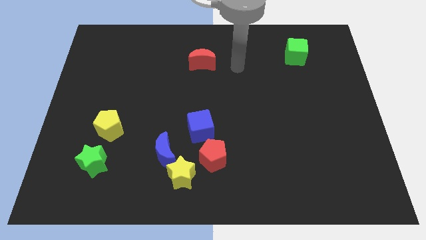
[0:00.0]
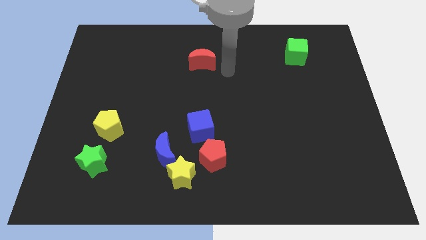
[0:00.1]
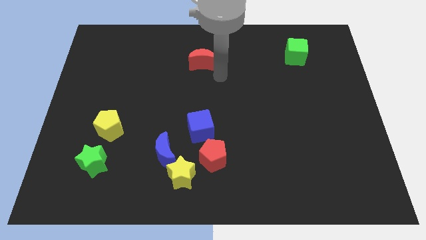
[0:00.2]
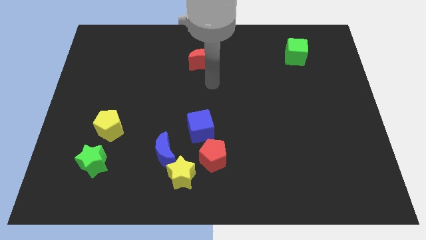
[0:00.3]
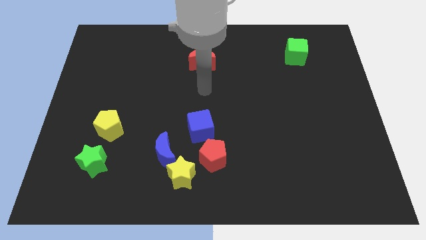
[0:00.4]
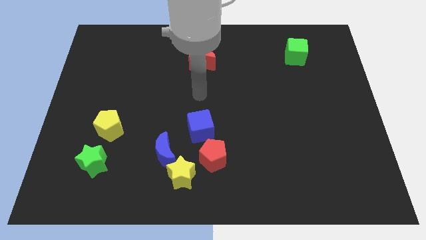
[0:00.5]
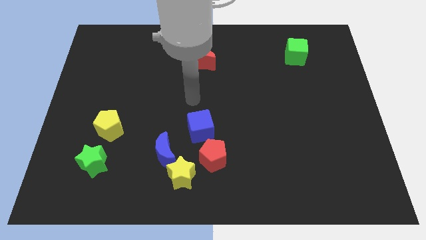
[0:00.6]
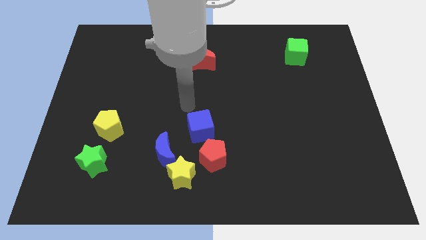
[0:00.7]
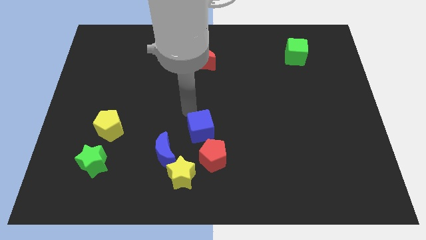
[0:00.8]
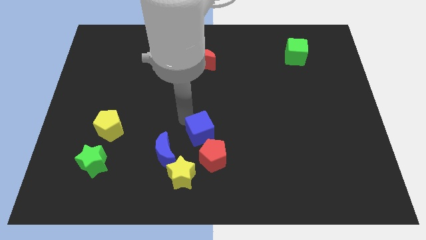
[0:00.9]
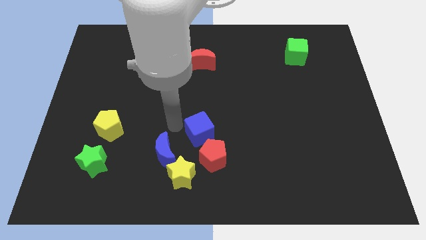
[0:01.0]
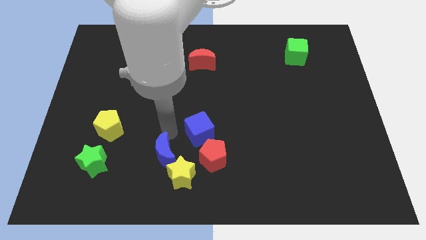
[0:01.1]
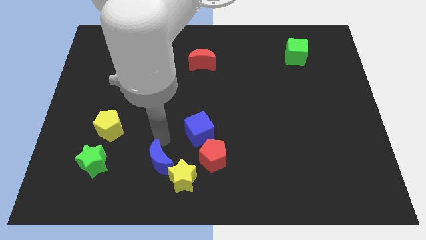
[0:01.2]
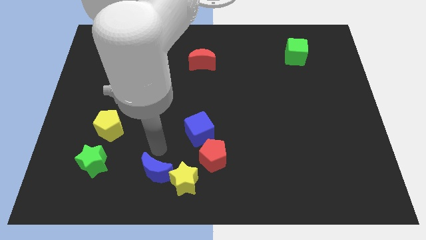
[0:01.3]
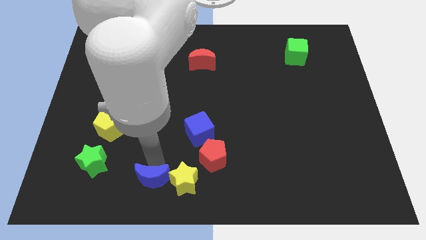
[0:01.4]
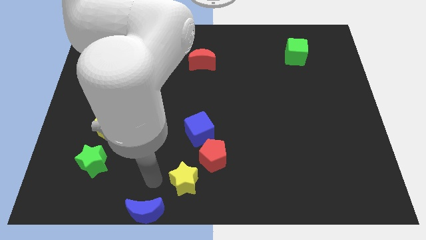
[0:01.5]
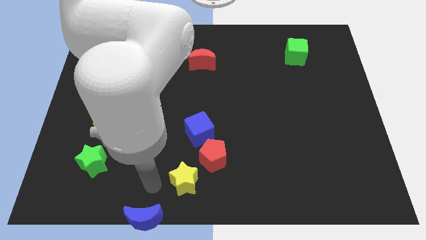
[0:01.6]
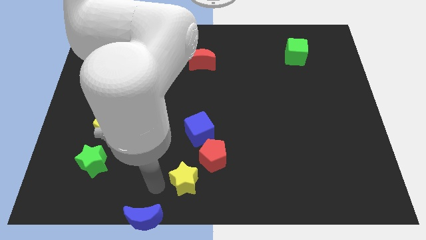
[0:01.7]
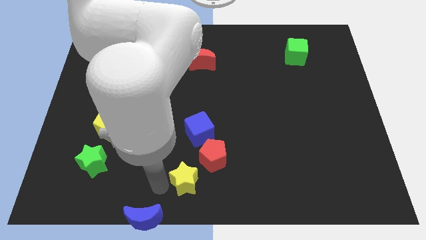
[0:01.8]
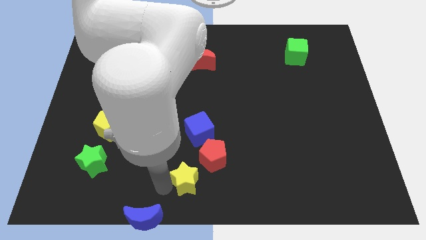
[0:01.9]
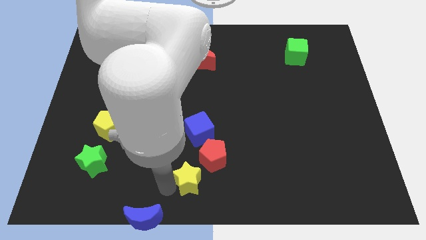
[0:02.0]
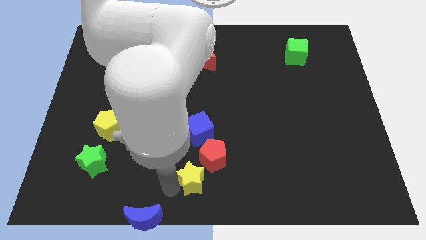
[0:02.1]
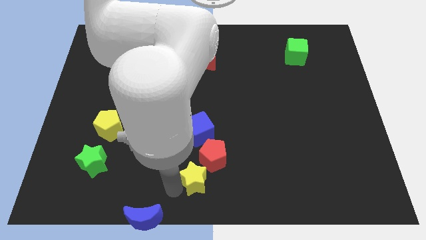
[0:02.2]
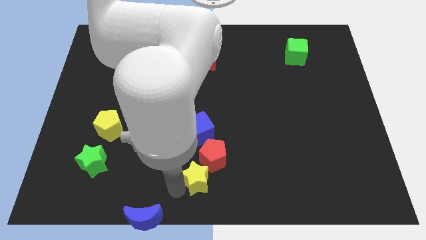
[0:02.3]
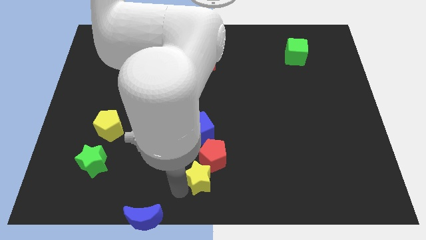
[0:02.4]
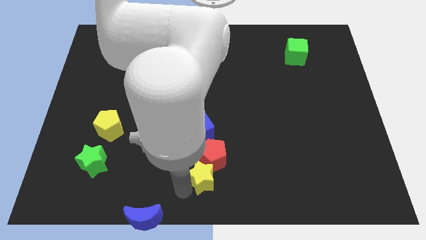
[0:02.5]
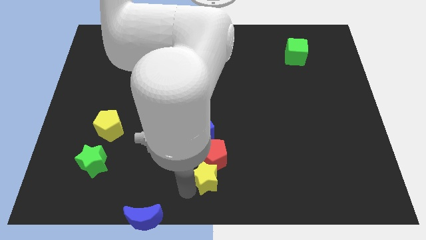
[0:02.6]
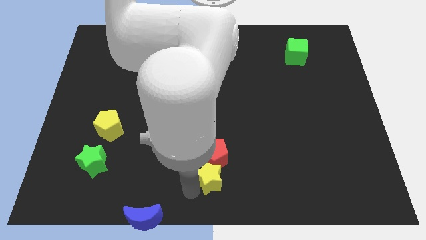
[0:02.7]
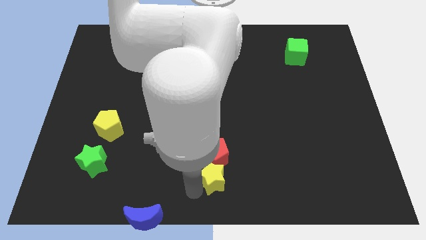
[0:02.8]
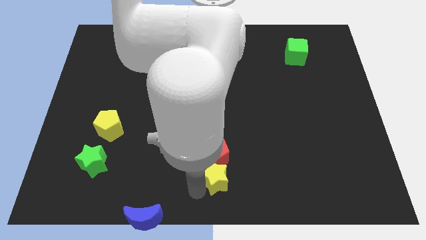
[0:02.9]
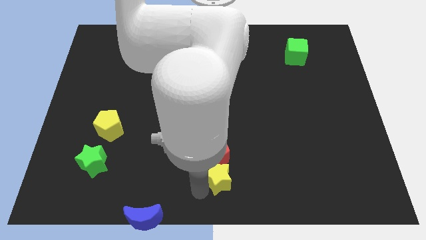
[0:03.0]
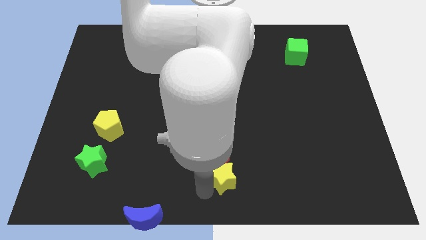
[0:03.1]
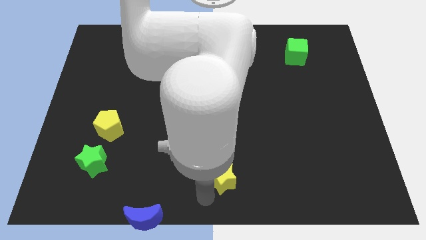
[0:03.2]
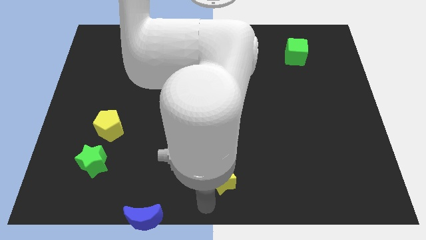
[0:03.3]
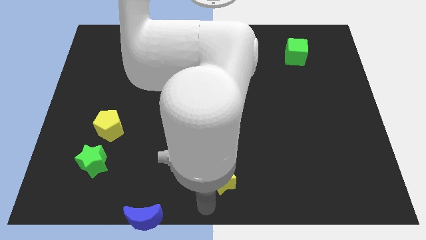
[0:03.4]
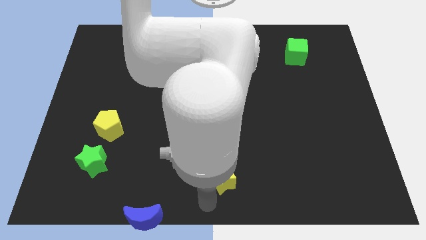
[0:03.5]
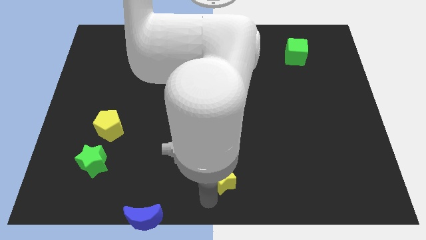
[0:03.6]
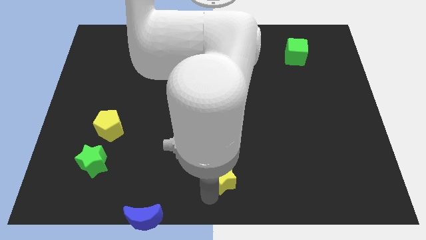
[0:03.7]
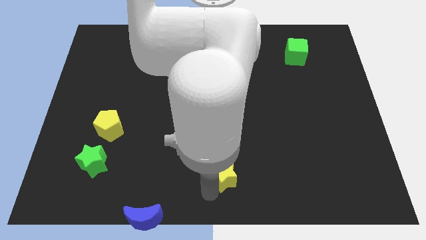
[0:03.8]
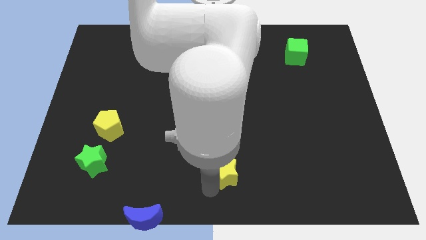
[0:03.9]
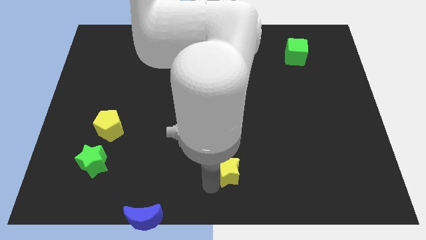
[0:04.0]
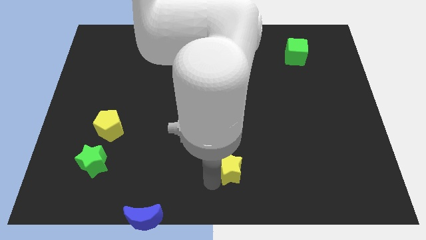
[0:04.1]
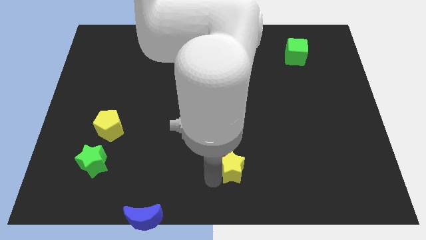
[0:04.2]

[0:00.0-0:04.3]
move the yellow star up and then right a little bit

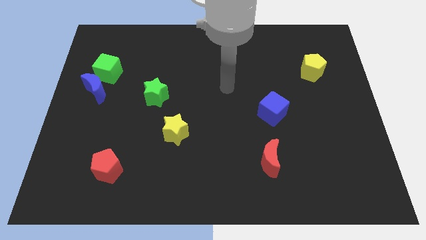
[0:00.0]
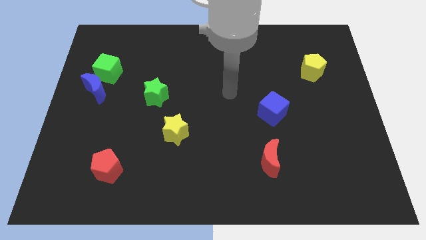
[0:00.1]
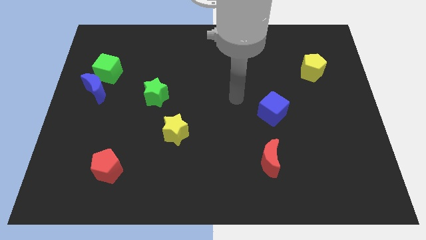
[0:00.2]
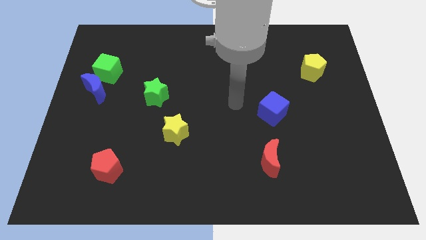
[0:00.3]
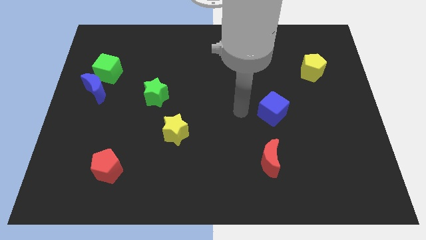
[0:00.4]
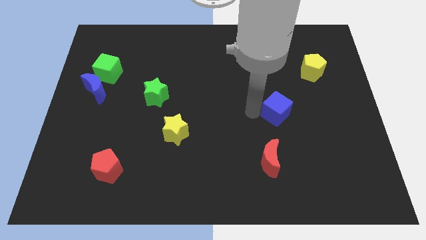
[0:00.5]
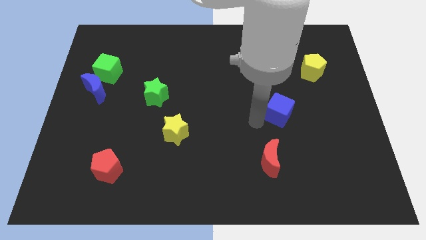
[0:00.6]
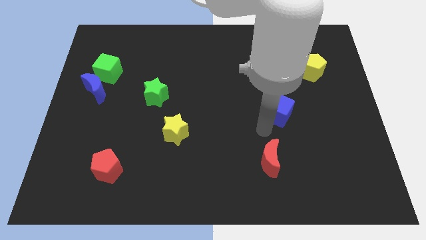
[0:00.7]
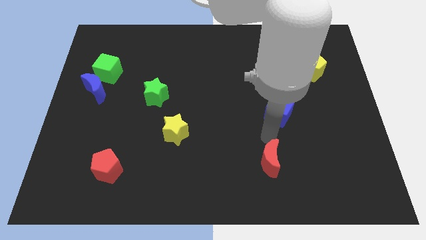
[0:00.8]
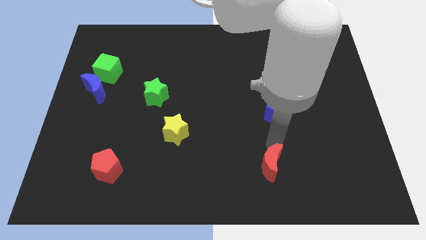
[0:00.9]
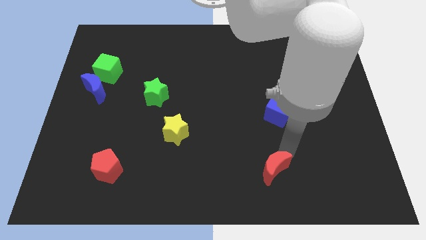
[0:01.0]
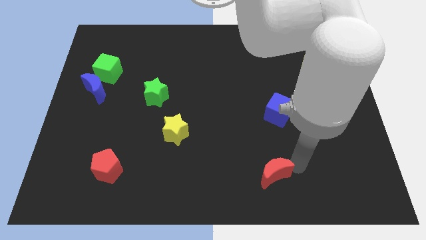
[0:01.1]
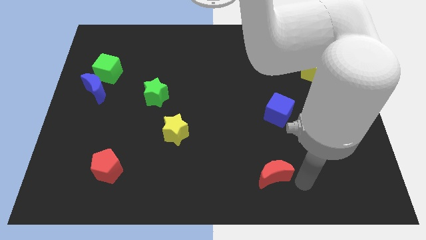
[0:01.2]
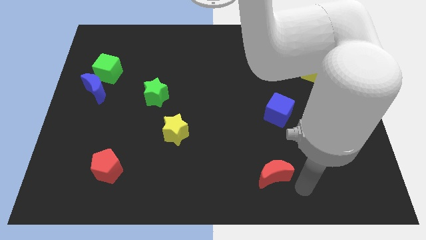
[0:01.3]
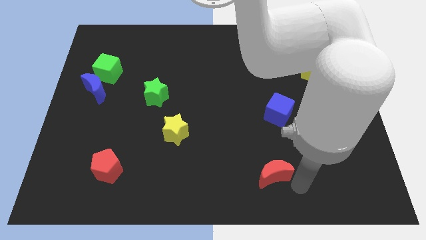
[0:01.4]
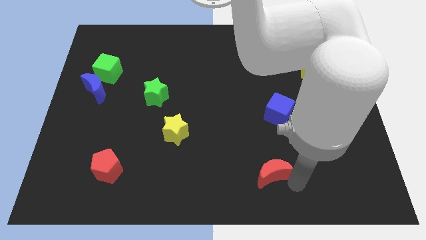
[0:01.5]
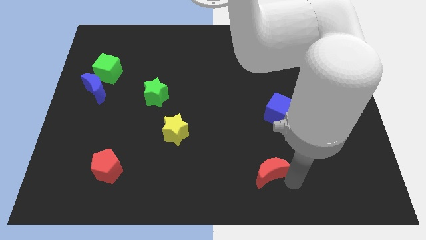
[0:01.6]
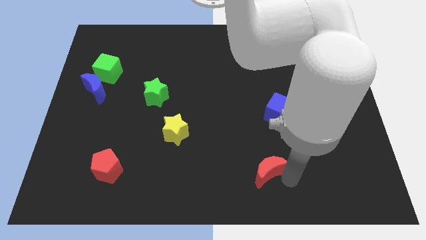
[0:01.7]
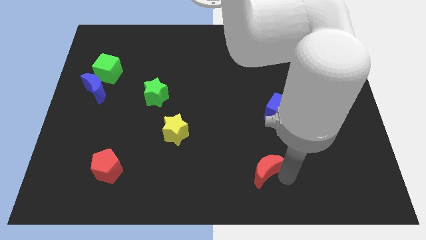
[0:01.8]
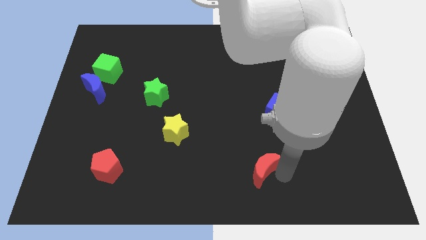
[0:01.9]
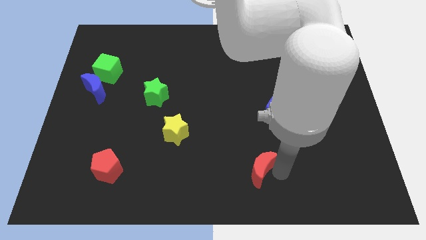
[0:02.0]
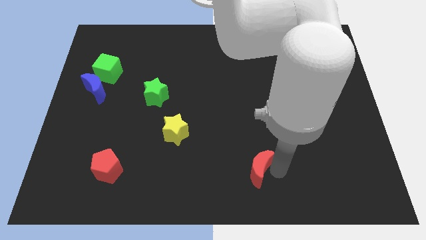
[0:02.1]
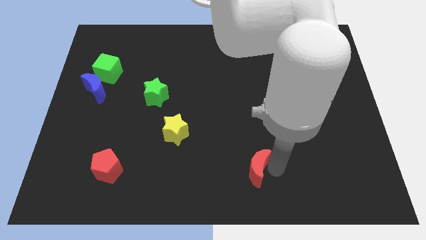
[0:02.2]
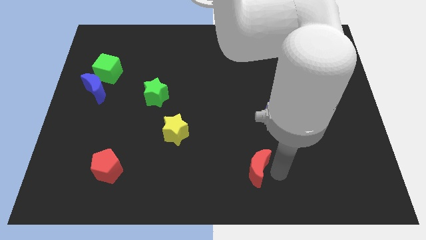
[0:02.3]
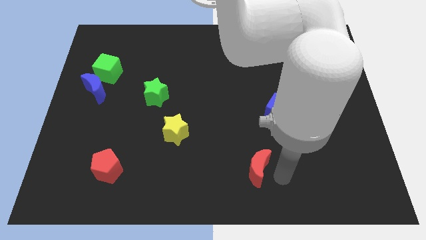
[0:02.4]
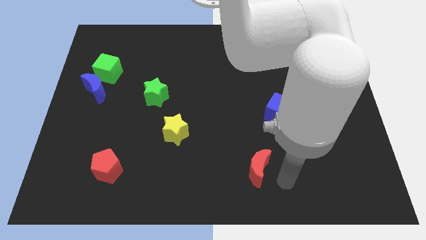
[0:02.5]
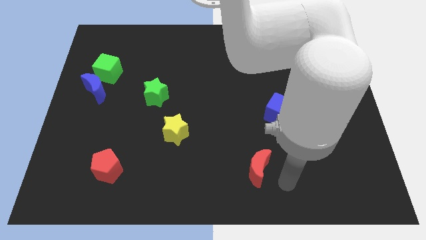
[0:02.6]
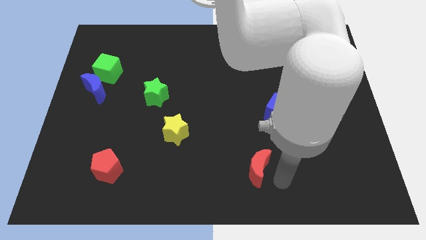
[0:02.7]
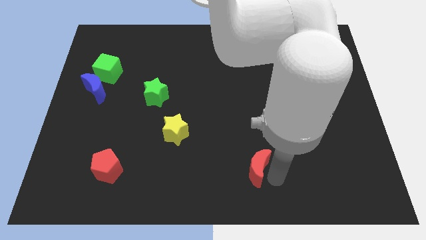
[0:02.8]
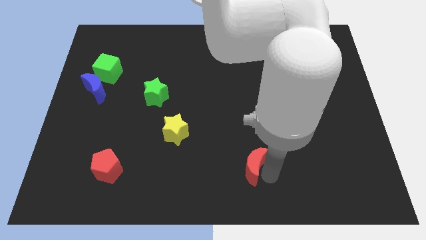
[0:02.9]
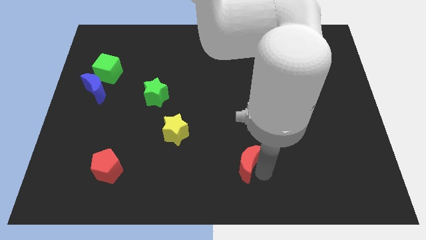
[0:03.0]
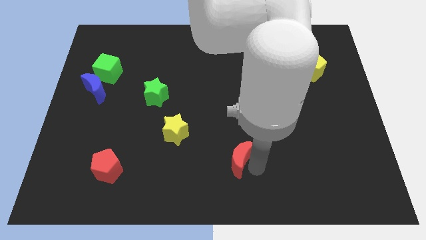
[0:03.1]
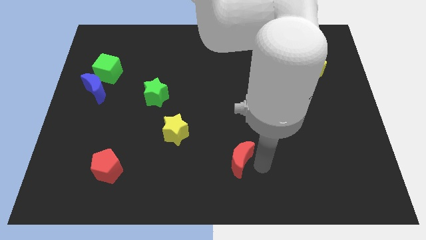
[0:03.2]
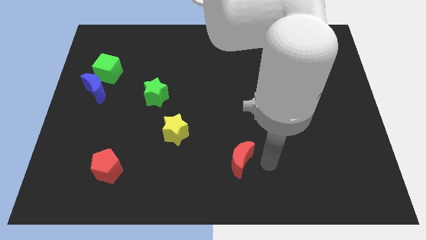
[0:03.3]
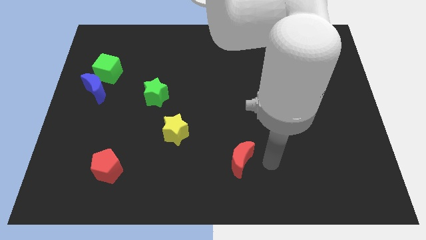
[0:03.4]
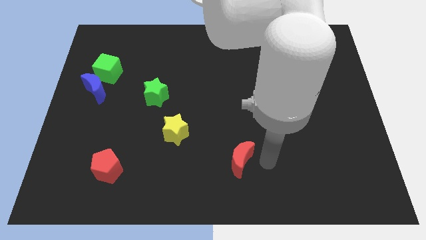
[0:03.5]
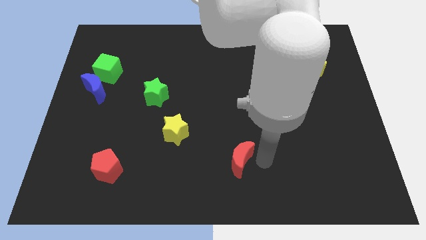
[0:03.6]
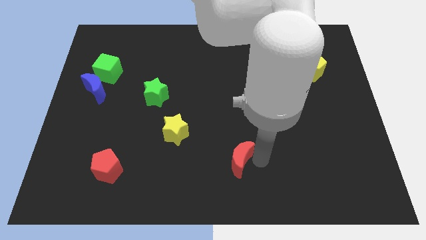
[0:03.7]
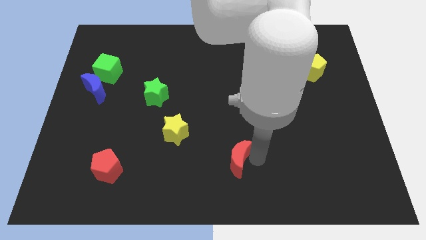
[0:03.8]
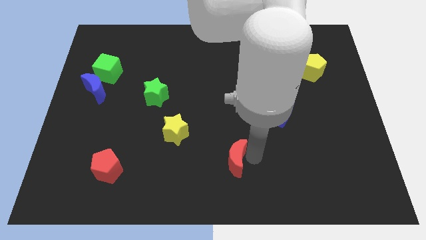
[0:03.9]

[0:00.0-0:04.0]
slightly move the red moon to the left
